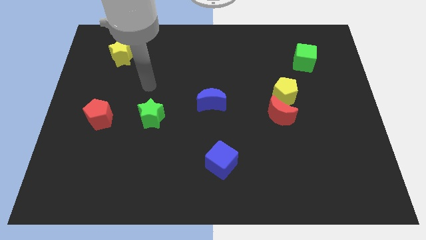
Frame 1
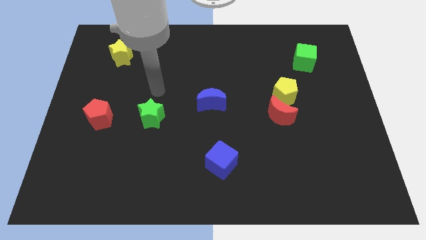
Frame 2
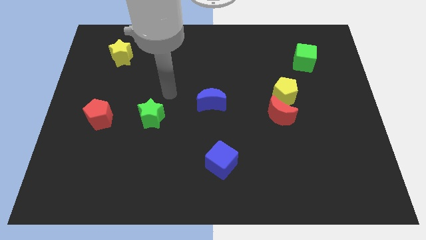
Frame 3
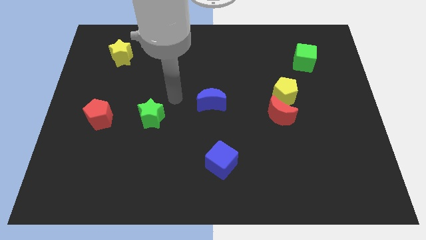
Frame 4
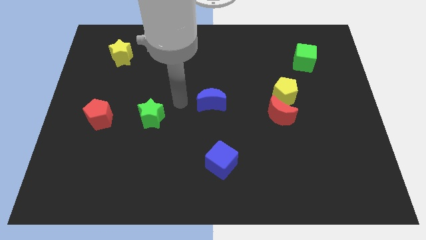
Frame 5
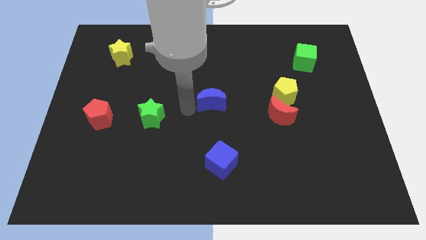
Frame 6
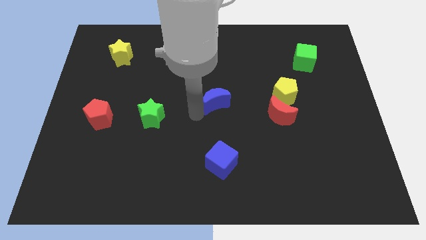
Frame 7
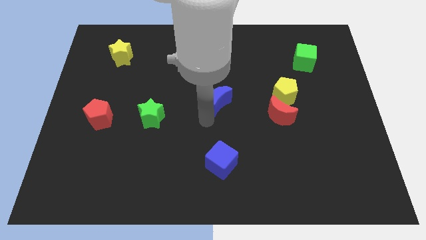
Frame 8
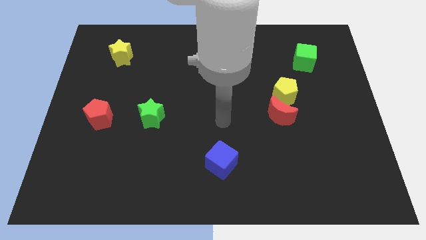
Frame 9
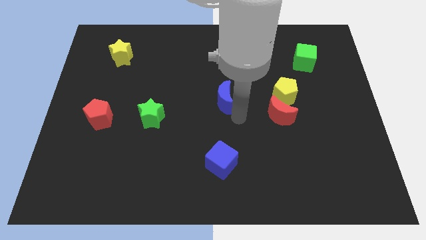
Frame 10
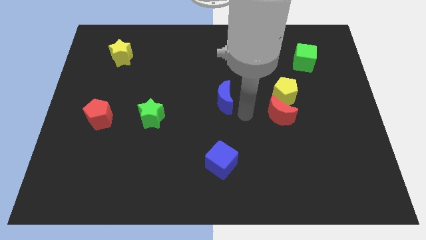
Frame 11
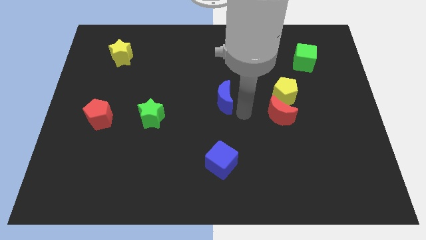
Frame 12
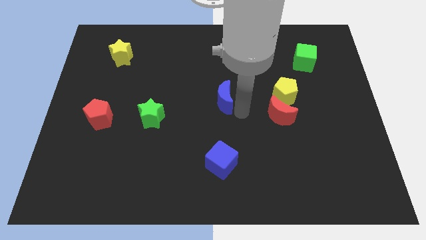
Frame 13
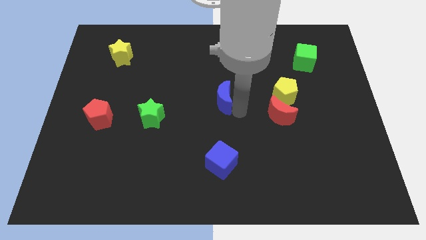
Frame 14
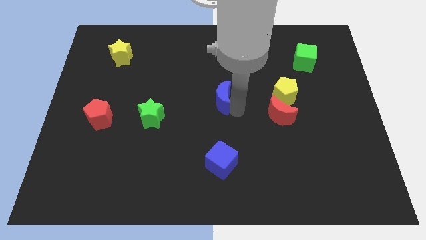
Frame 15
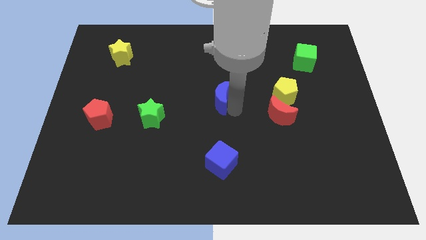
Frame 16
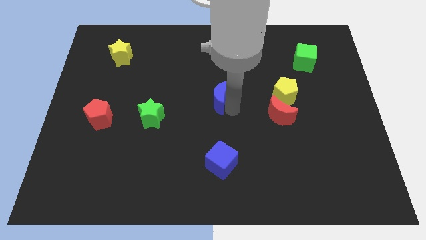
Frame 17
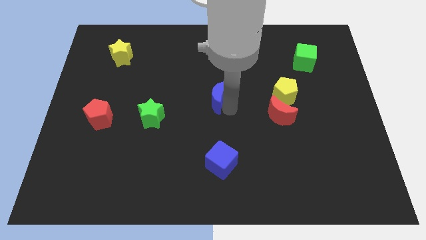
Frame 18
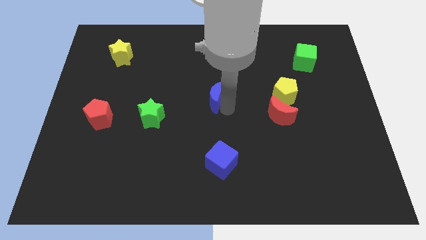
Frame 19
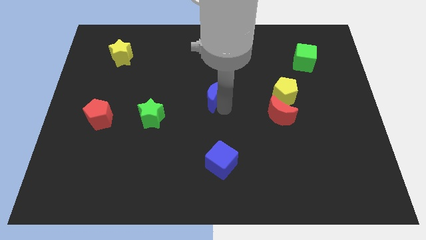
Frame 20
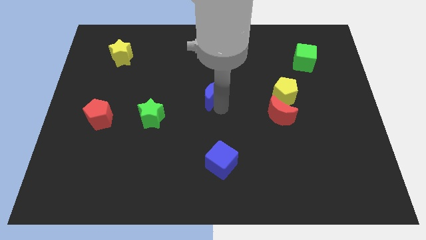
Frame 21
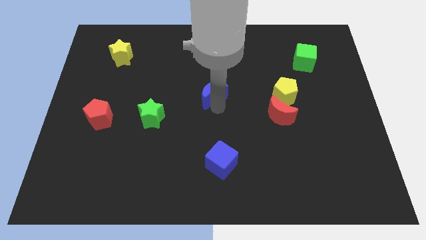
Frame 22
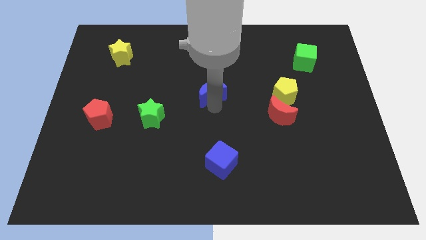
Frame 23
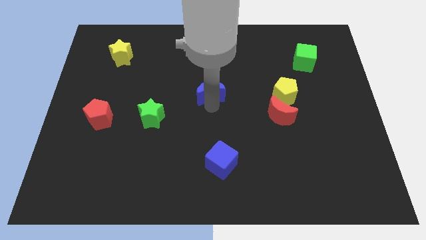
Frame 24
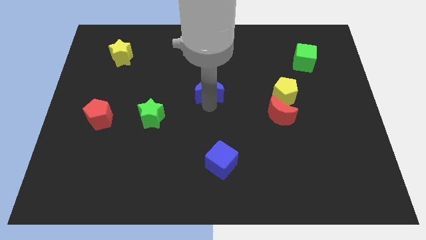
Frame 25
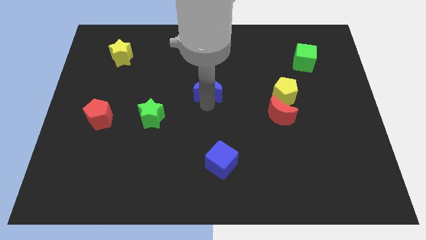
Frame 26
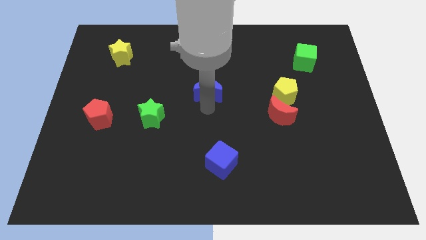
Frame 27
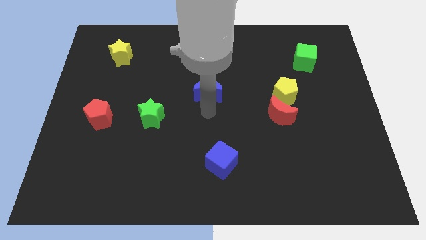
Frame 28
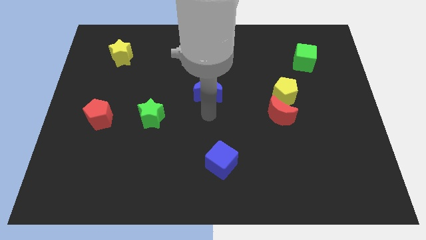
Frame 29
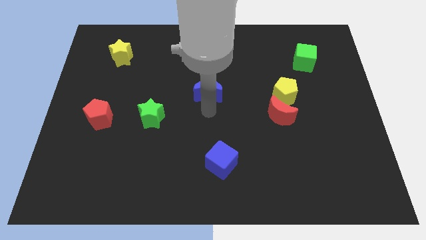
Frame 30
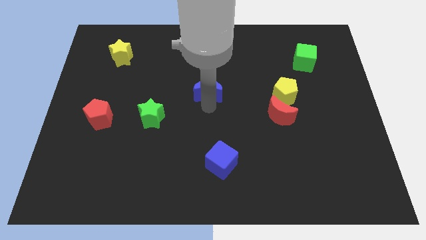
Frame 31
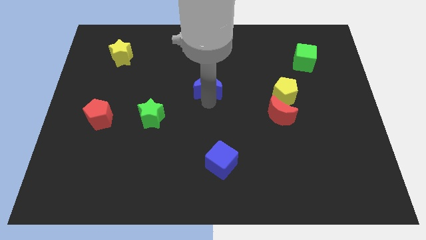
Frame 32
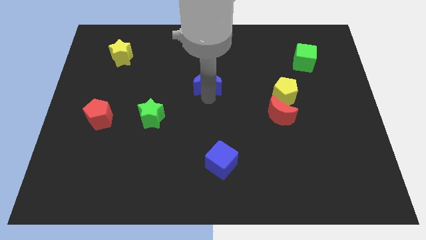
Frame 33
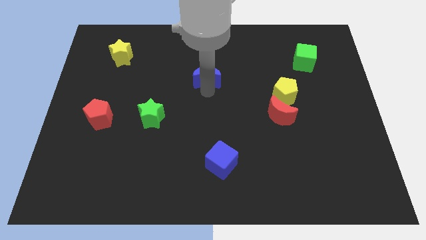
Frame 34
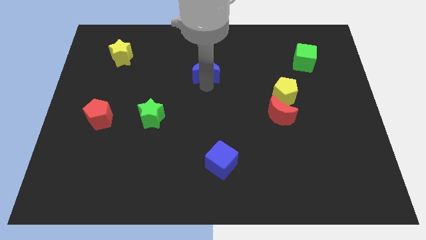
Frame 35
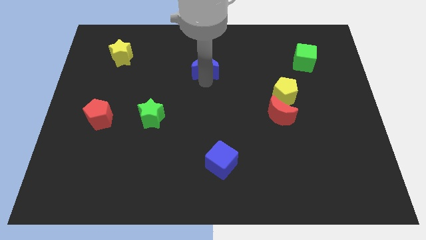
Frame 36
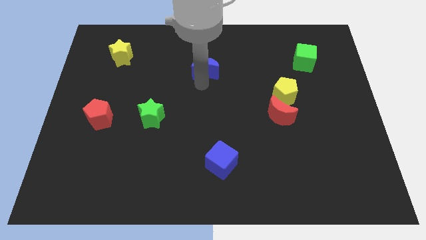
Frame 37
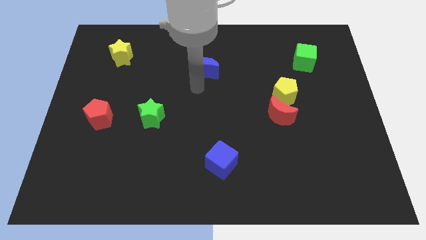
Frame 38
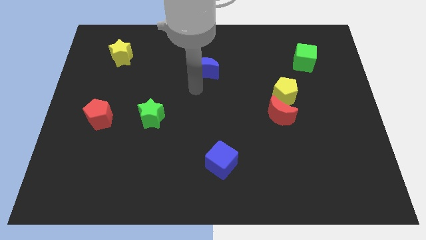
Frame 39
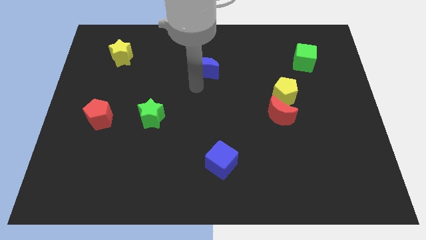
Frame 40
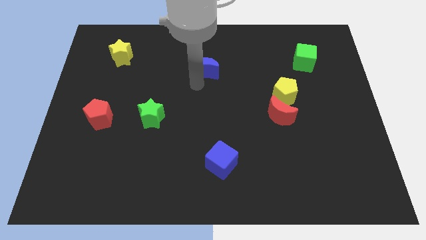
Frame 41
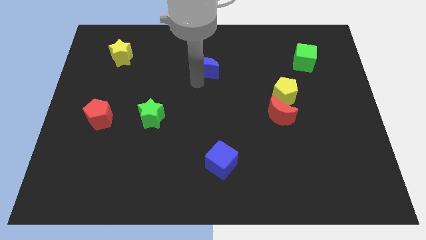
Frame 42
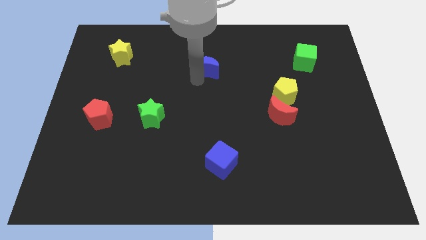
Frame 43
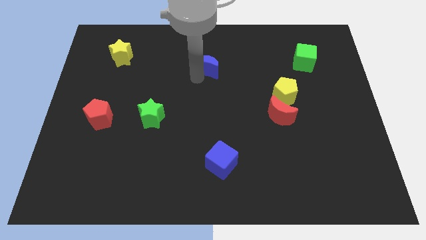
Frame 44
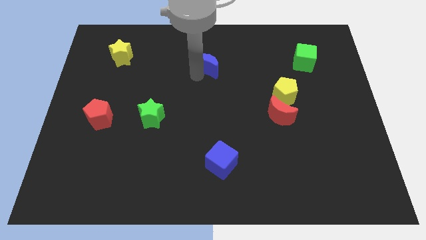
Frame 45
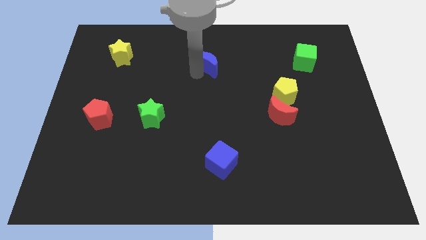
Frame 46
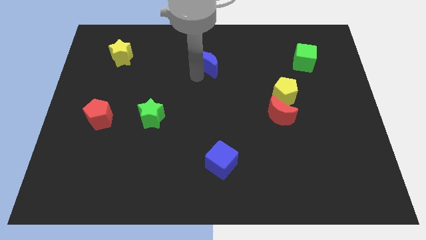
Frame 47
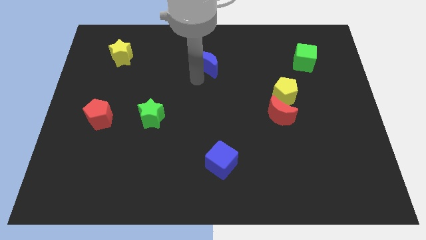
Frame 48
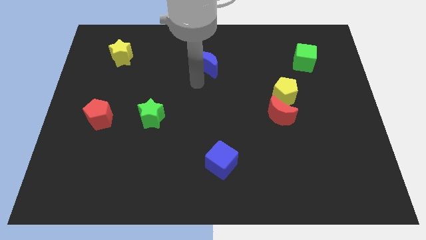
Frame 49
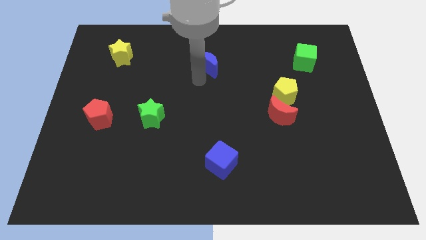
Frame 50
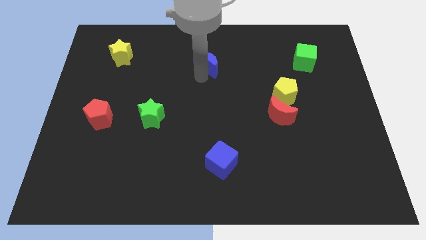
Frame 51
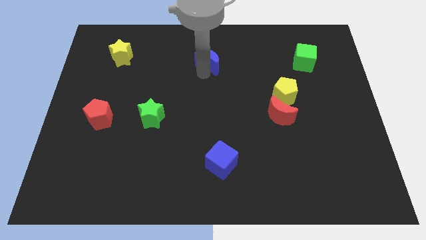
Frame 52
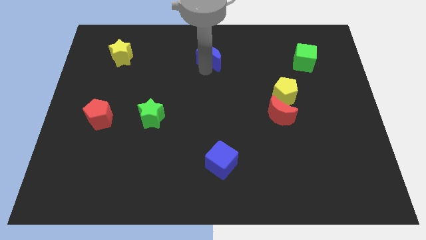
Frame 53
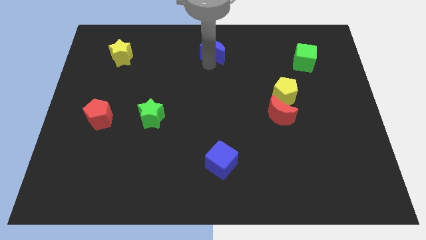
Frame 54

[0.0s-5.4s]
slide the blue moon to the towards your base

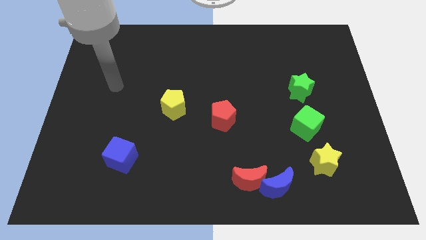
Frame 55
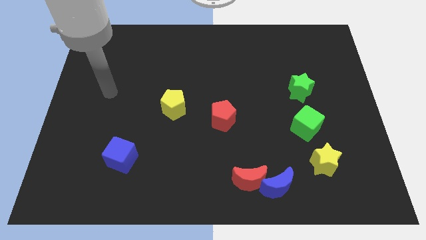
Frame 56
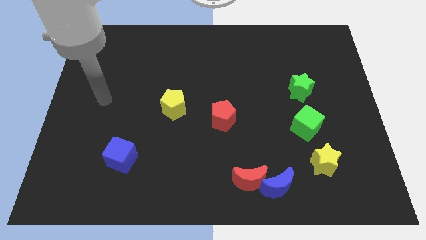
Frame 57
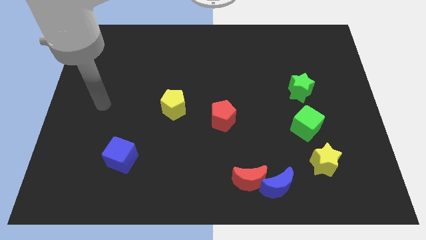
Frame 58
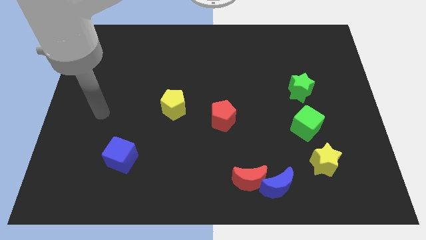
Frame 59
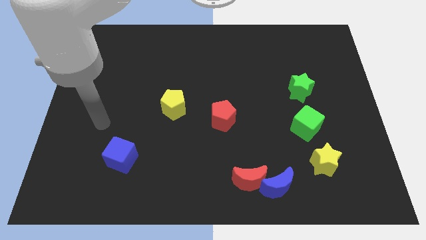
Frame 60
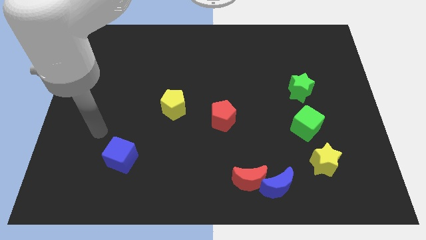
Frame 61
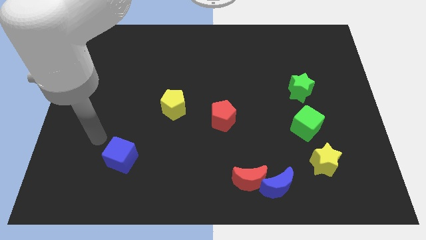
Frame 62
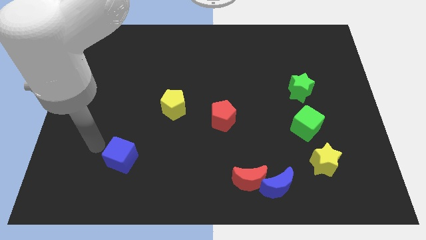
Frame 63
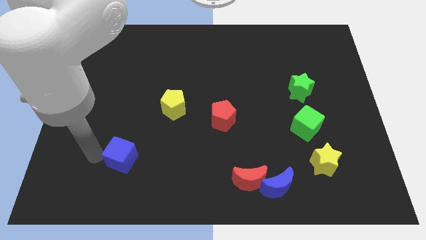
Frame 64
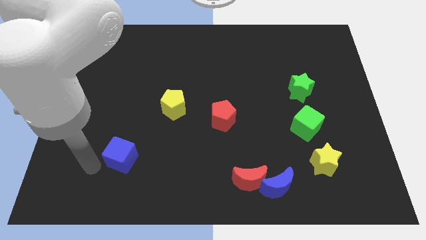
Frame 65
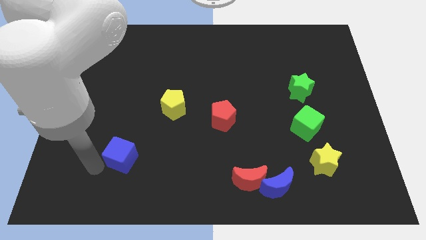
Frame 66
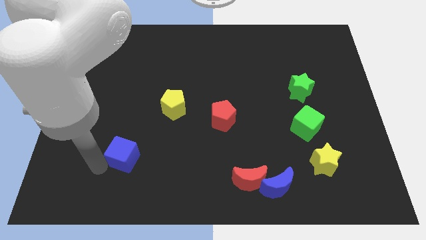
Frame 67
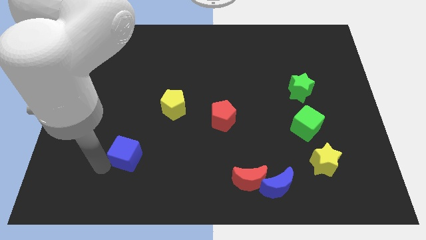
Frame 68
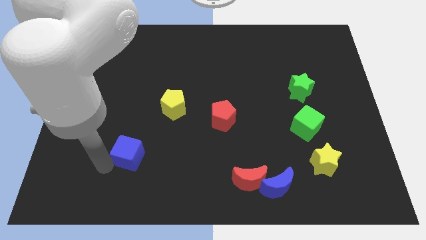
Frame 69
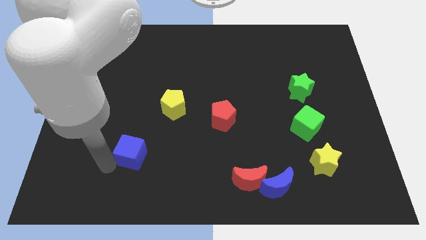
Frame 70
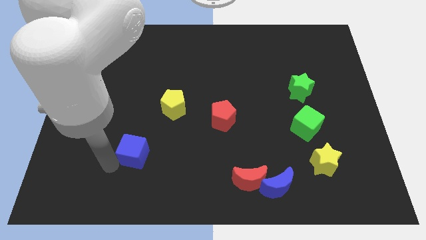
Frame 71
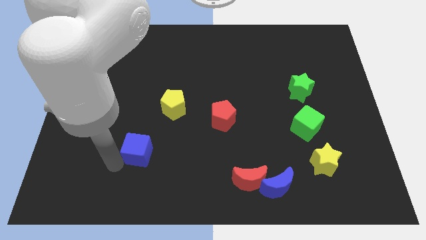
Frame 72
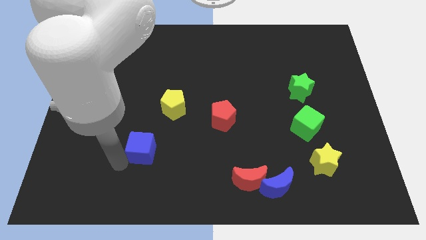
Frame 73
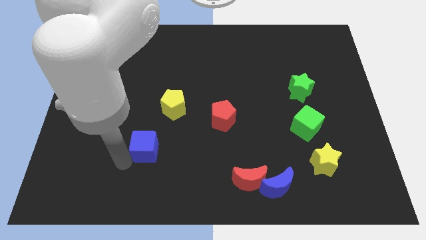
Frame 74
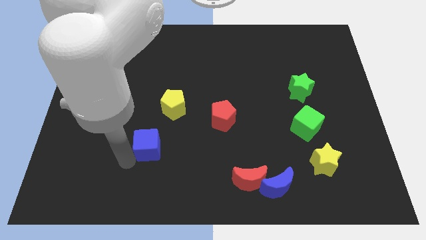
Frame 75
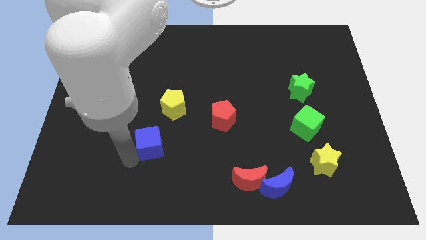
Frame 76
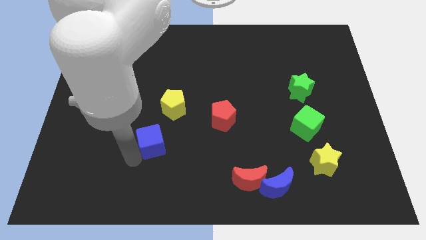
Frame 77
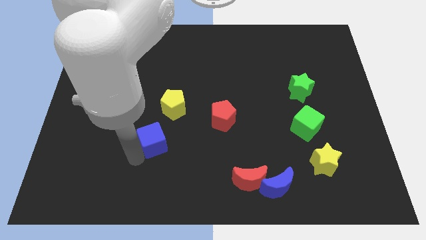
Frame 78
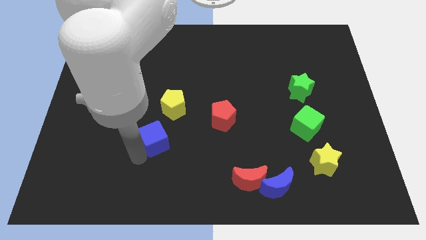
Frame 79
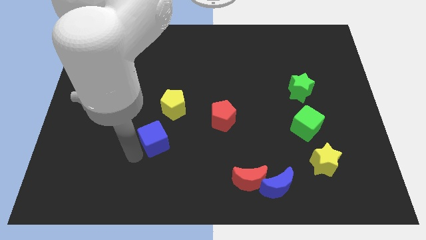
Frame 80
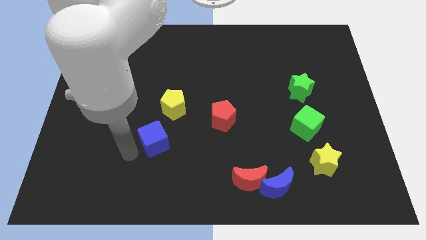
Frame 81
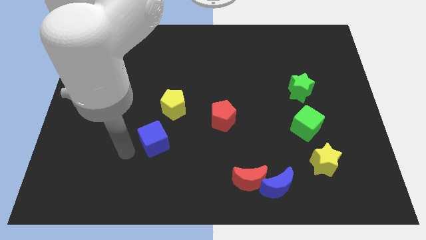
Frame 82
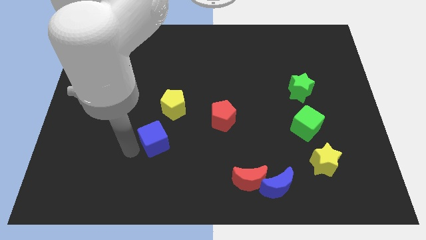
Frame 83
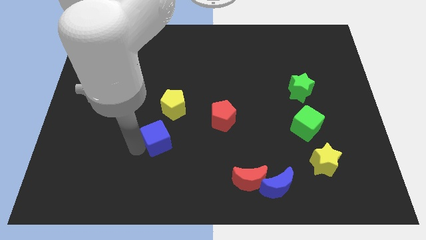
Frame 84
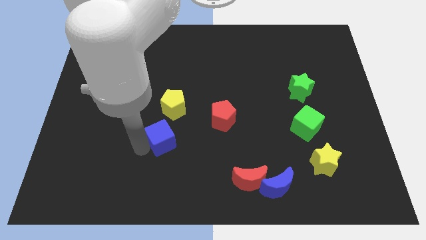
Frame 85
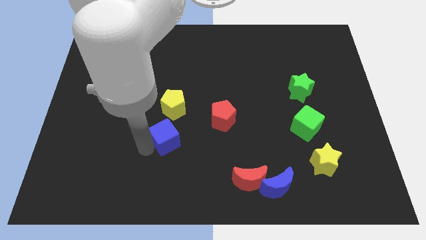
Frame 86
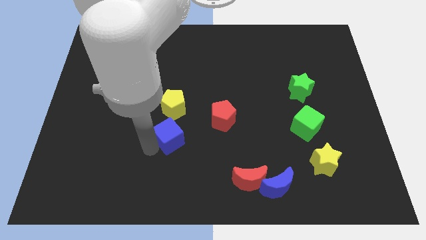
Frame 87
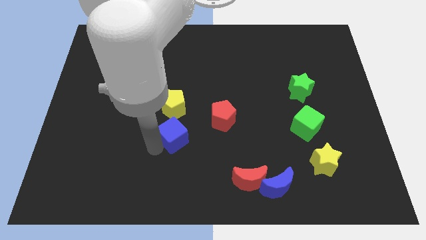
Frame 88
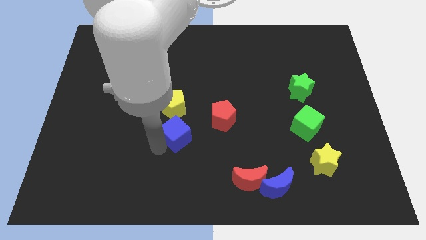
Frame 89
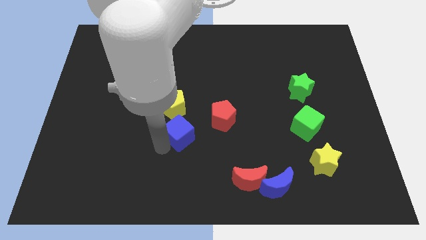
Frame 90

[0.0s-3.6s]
move the blue cube to the middle of the board
